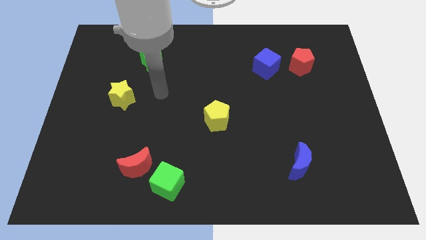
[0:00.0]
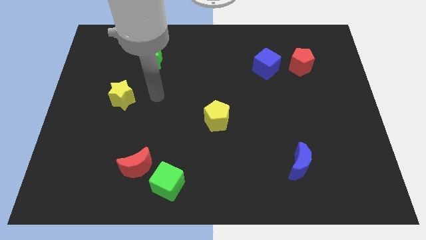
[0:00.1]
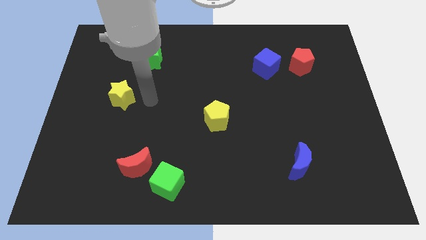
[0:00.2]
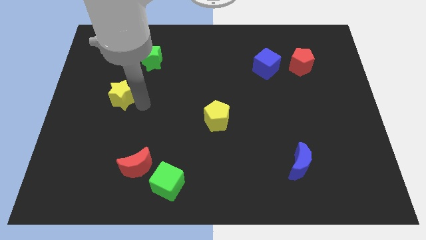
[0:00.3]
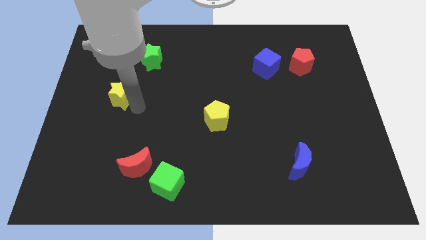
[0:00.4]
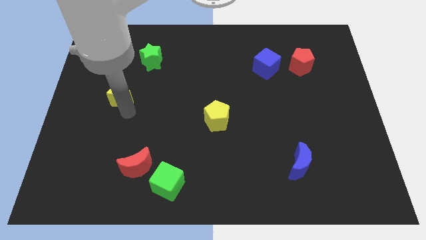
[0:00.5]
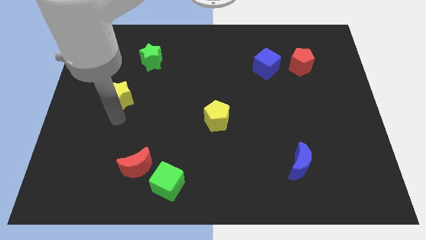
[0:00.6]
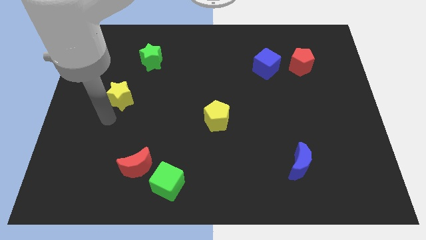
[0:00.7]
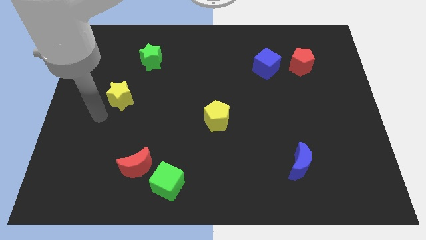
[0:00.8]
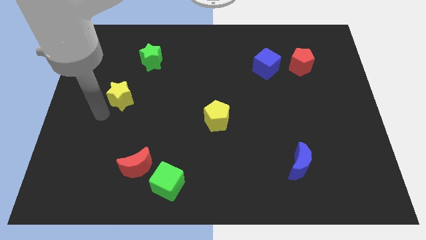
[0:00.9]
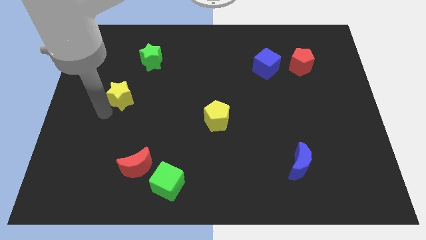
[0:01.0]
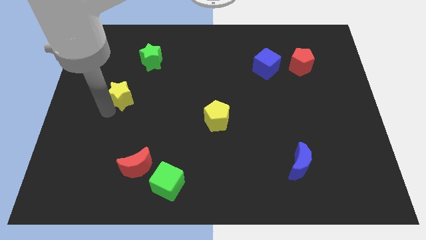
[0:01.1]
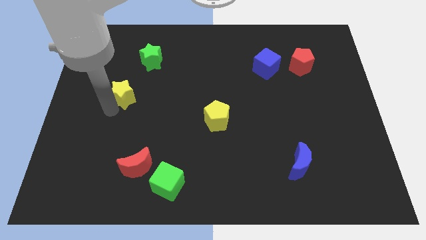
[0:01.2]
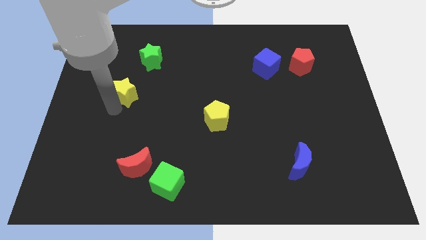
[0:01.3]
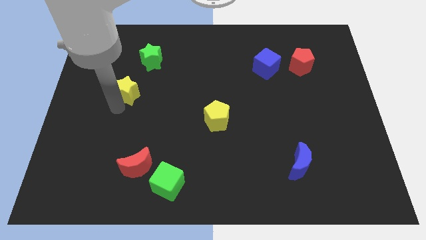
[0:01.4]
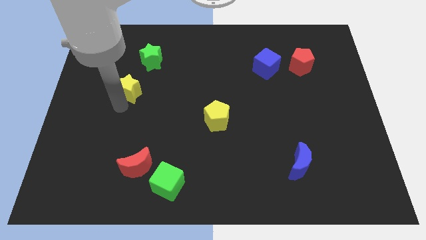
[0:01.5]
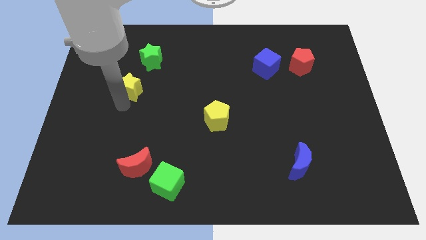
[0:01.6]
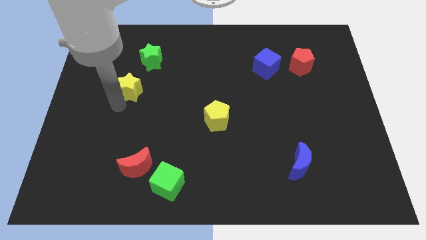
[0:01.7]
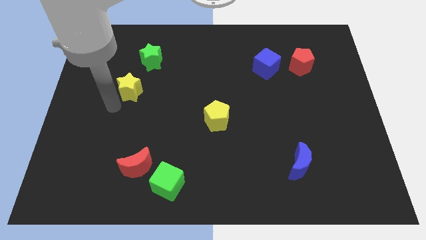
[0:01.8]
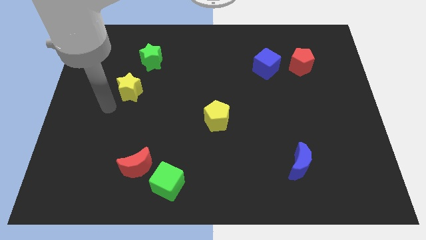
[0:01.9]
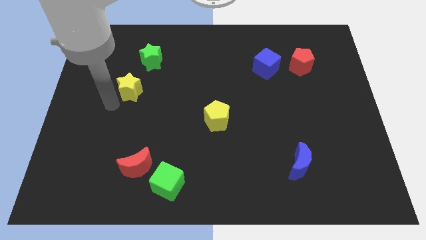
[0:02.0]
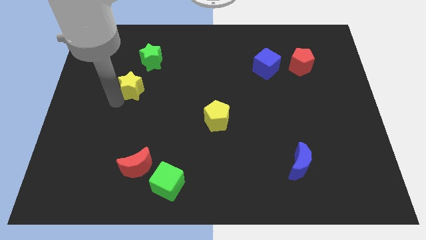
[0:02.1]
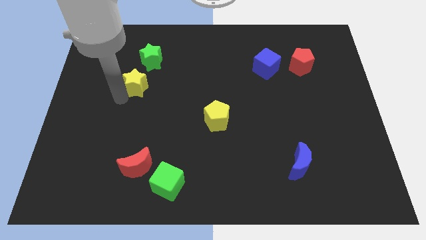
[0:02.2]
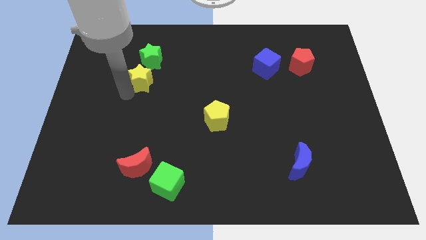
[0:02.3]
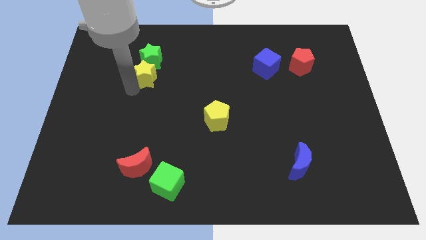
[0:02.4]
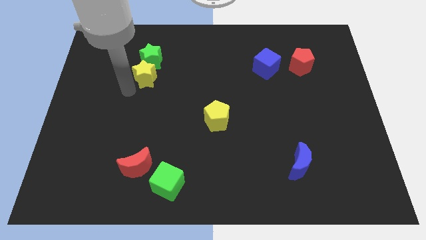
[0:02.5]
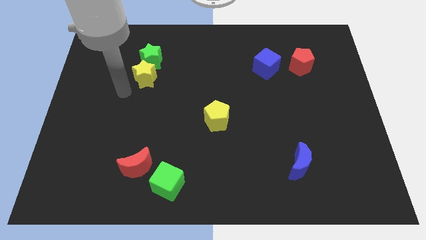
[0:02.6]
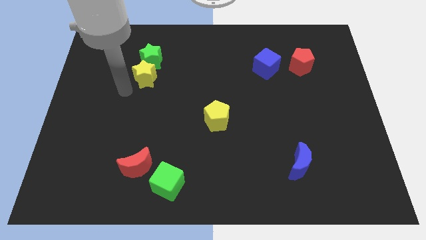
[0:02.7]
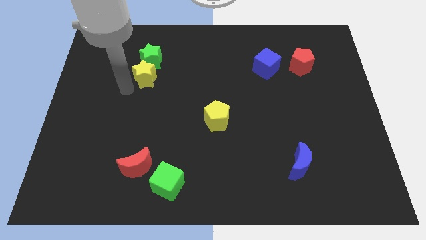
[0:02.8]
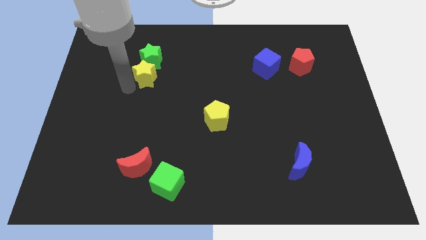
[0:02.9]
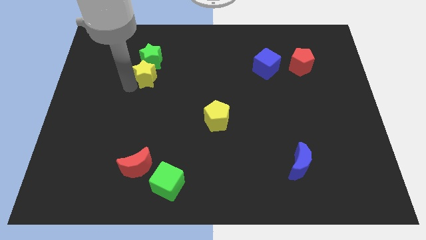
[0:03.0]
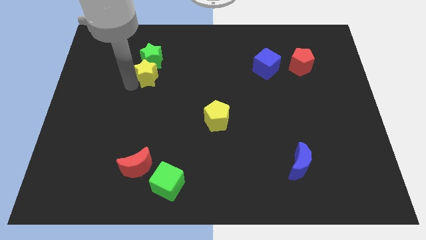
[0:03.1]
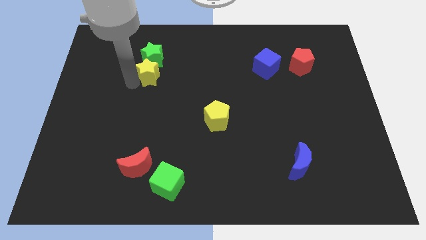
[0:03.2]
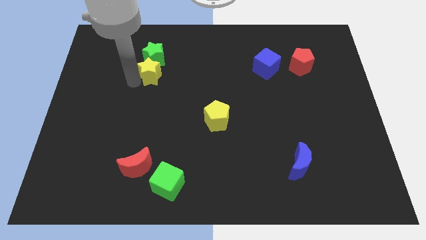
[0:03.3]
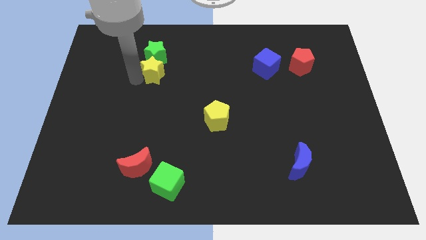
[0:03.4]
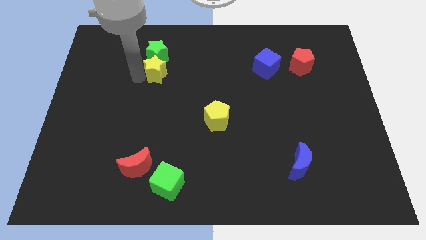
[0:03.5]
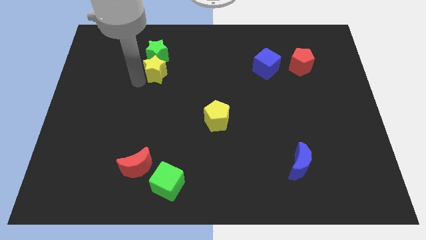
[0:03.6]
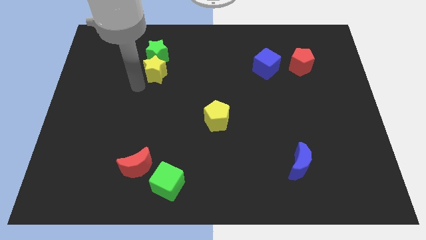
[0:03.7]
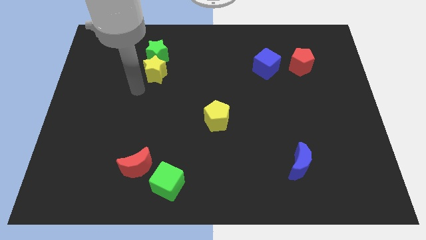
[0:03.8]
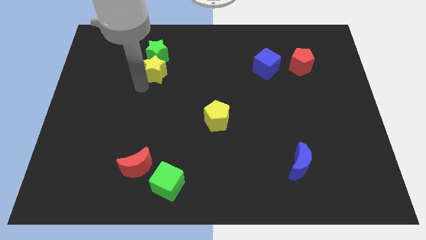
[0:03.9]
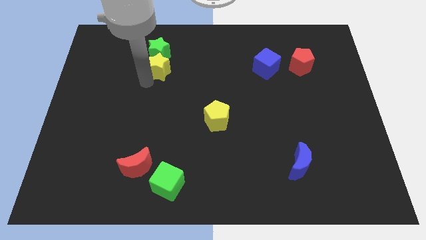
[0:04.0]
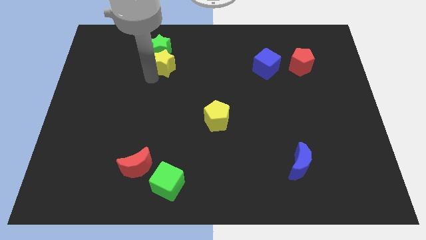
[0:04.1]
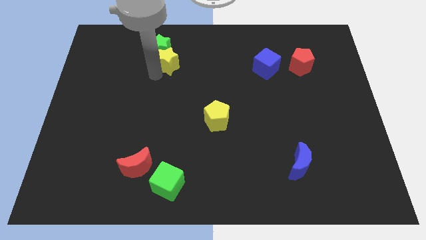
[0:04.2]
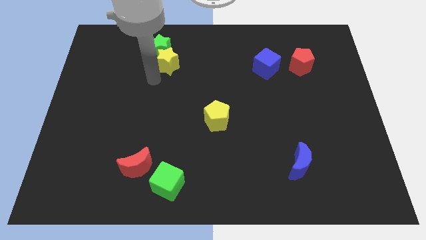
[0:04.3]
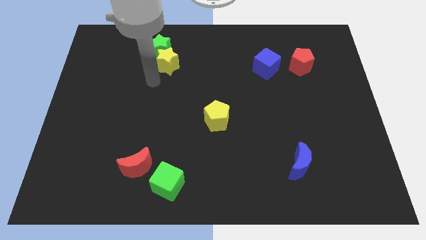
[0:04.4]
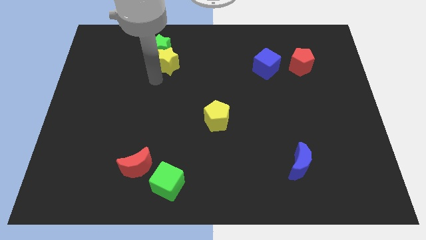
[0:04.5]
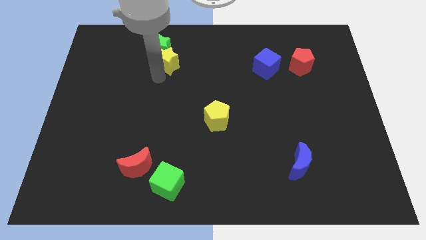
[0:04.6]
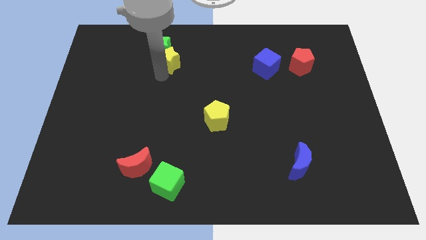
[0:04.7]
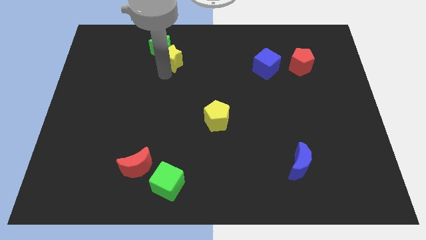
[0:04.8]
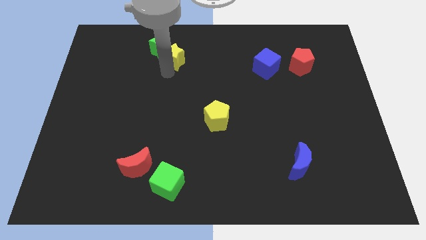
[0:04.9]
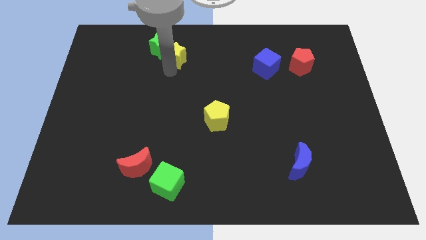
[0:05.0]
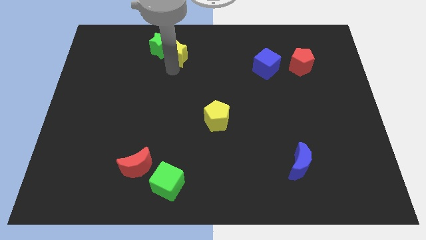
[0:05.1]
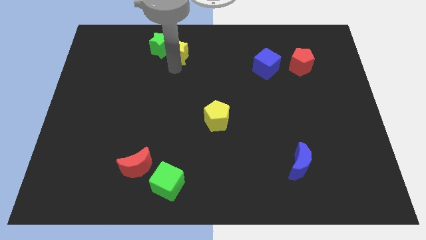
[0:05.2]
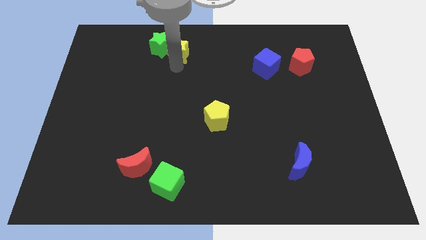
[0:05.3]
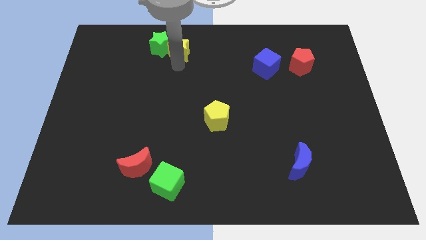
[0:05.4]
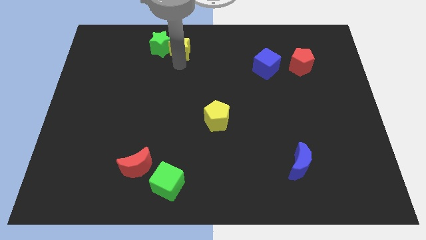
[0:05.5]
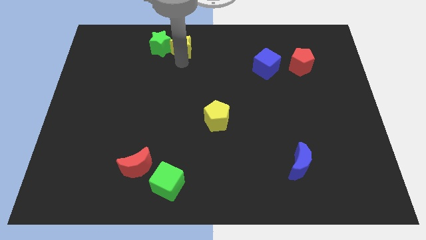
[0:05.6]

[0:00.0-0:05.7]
put the yellow star to the top side
